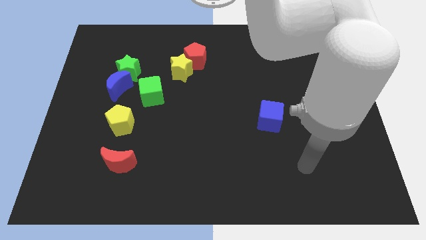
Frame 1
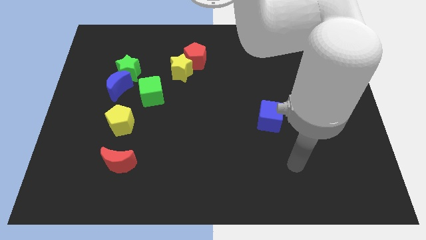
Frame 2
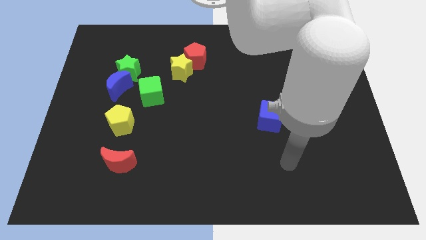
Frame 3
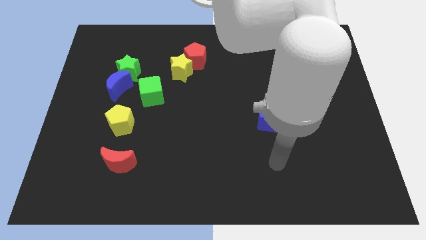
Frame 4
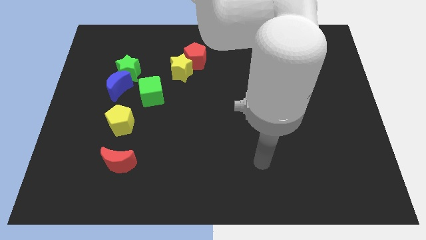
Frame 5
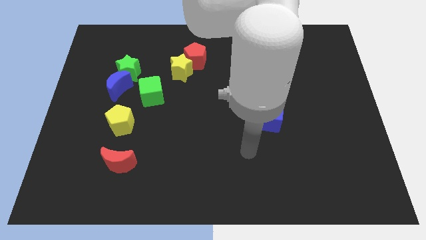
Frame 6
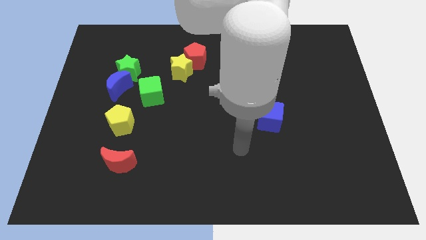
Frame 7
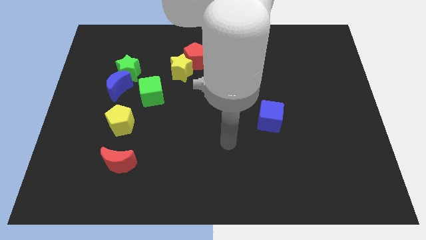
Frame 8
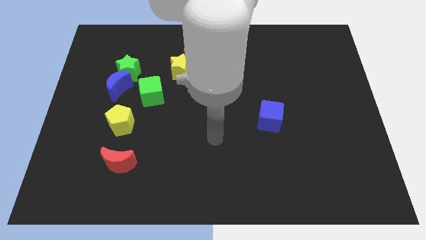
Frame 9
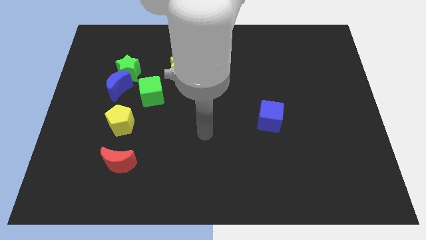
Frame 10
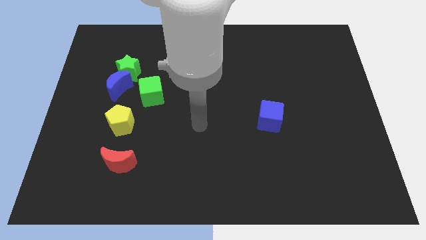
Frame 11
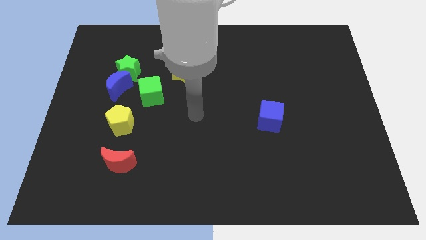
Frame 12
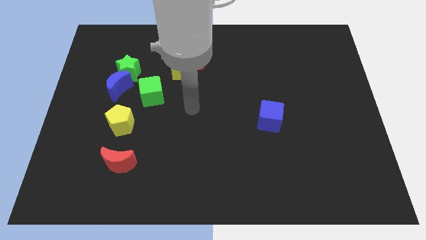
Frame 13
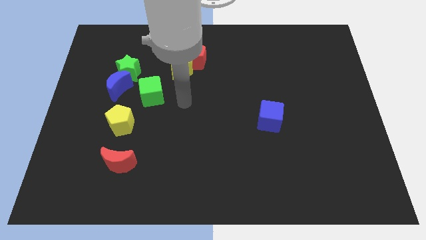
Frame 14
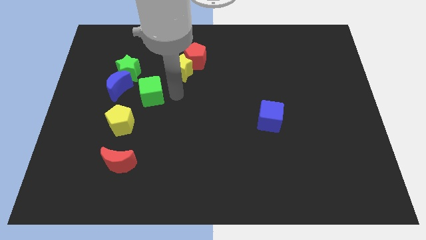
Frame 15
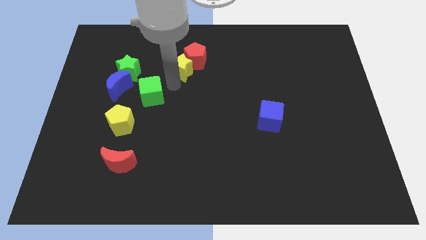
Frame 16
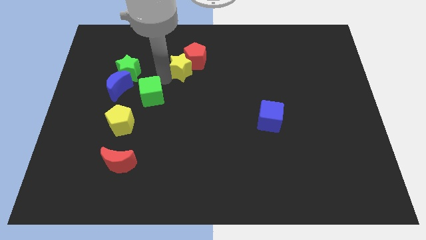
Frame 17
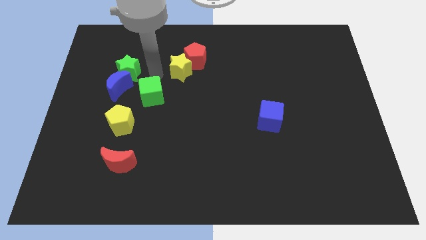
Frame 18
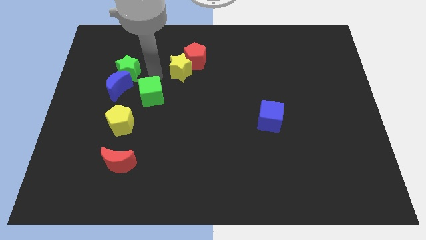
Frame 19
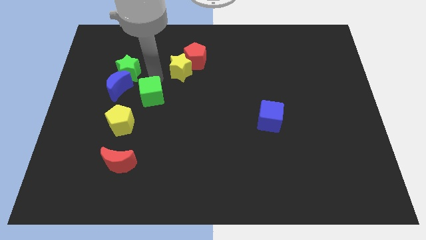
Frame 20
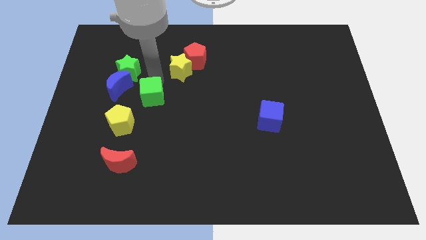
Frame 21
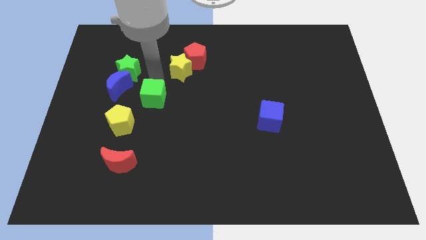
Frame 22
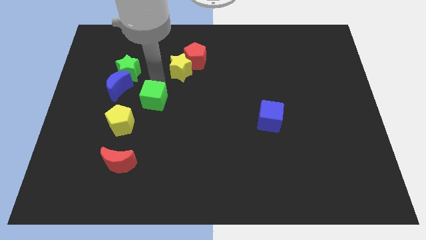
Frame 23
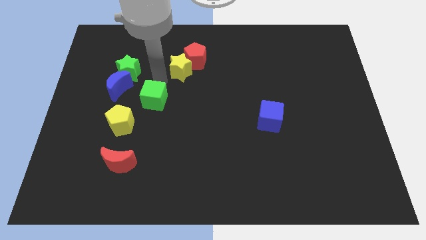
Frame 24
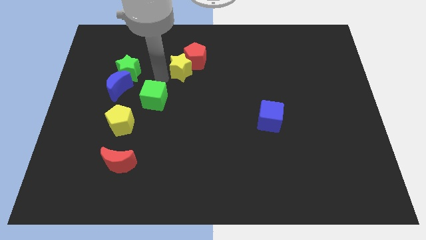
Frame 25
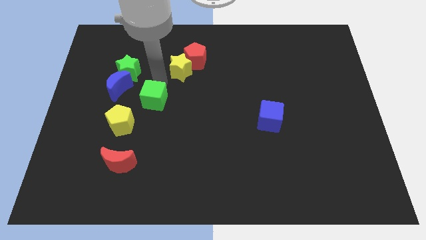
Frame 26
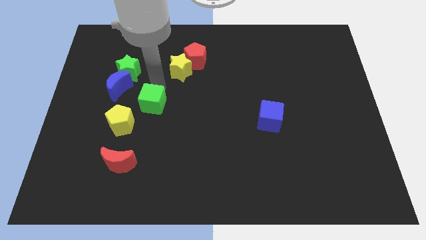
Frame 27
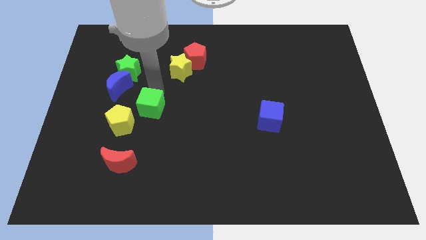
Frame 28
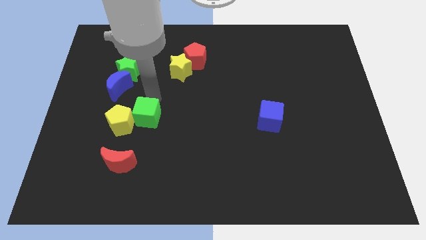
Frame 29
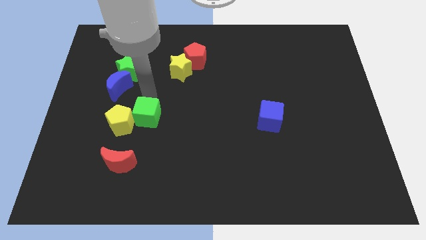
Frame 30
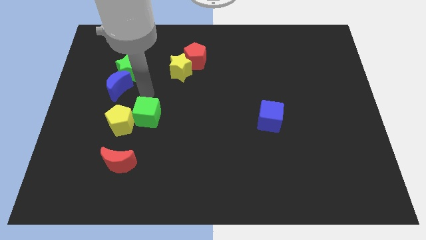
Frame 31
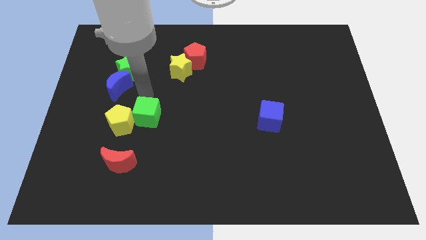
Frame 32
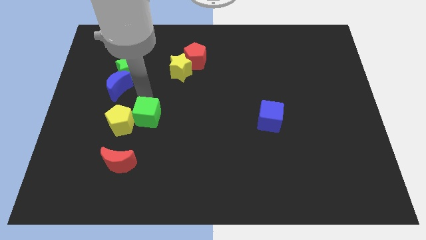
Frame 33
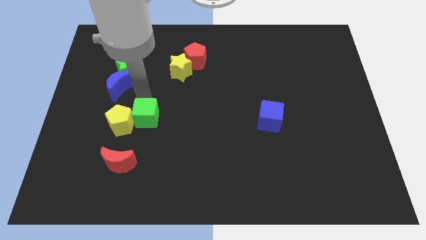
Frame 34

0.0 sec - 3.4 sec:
move the green cube downwards a bit

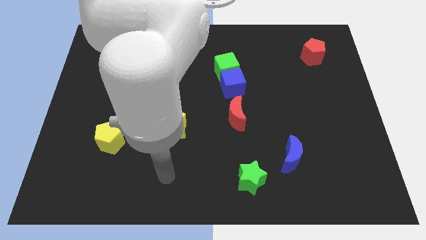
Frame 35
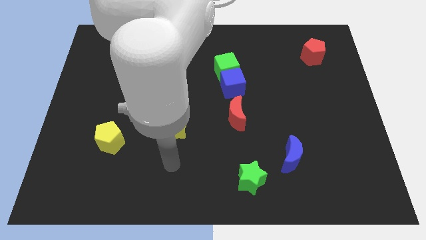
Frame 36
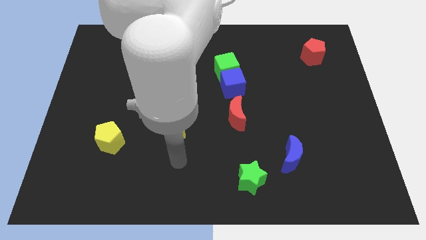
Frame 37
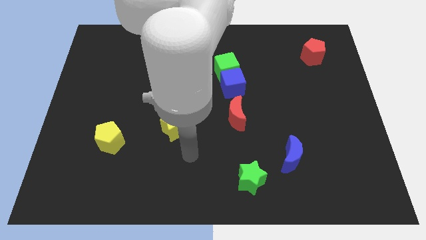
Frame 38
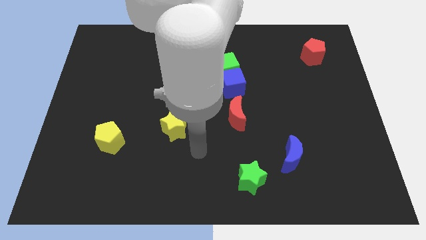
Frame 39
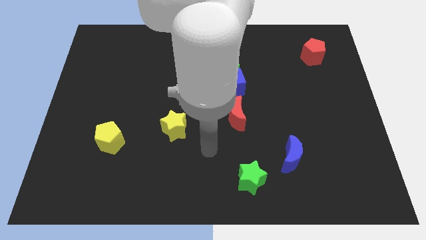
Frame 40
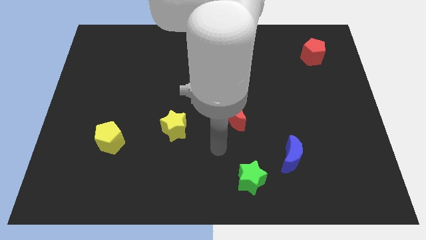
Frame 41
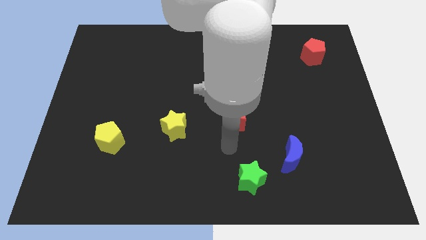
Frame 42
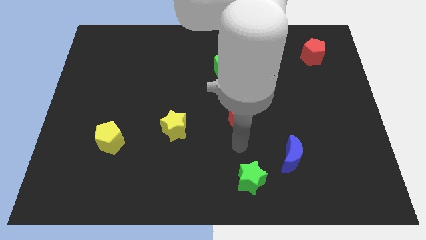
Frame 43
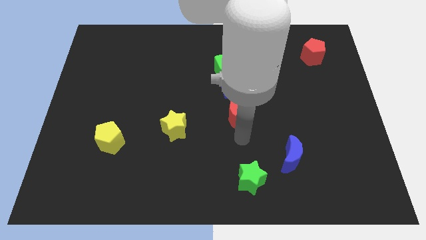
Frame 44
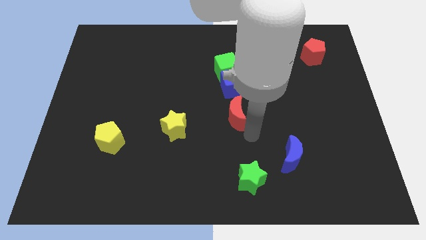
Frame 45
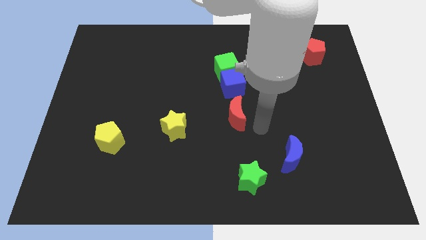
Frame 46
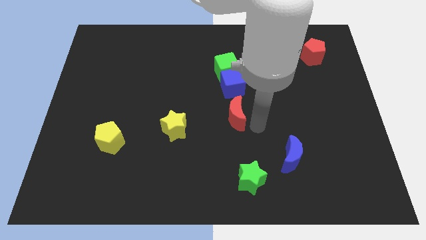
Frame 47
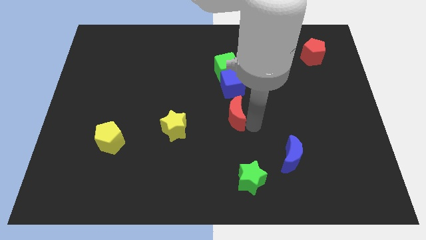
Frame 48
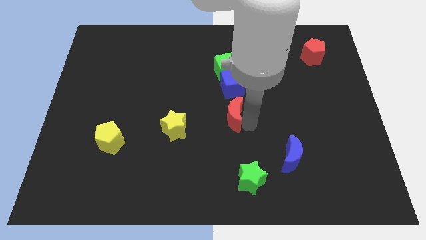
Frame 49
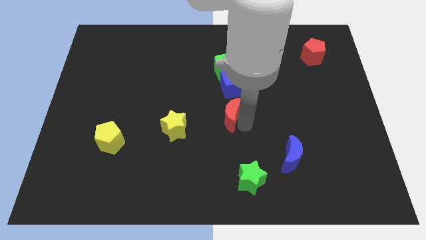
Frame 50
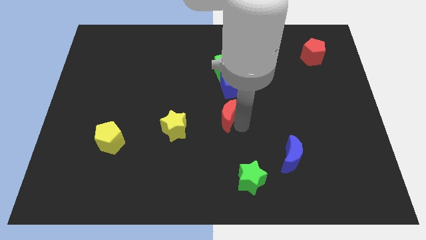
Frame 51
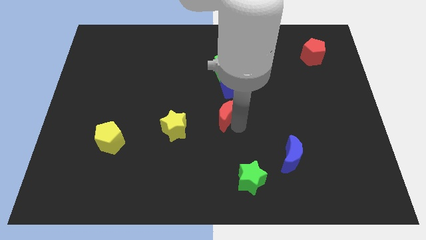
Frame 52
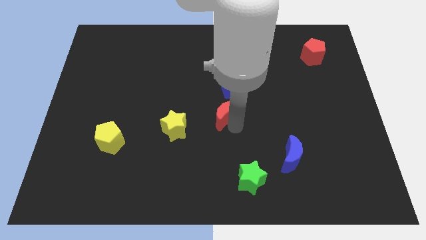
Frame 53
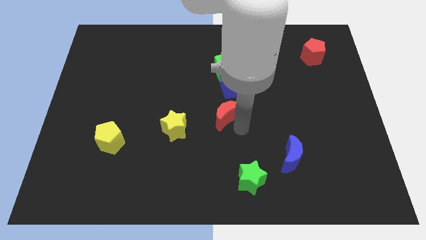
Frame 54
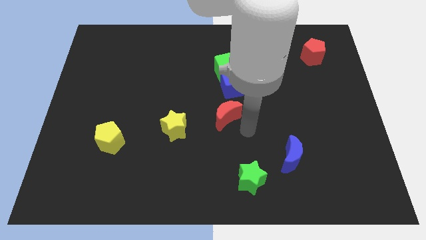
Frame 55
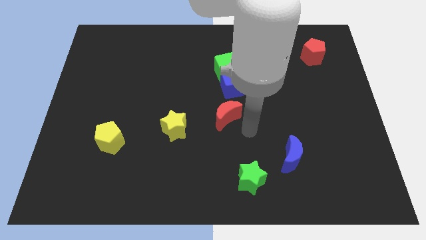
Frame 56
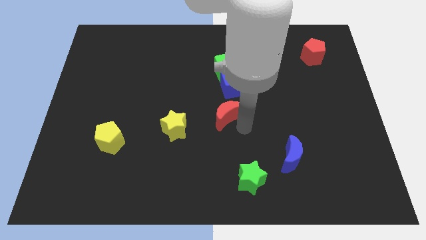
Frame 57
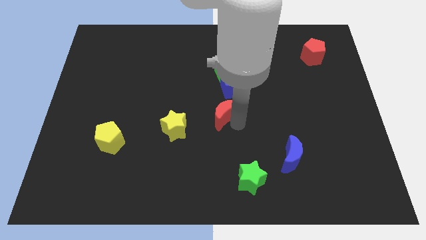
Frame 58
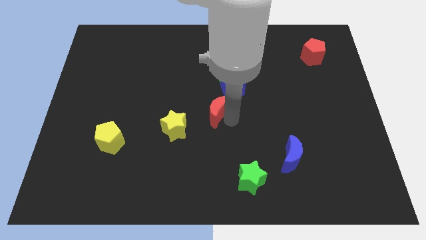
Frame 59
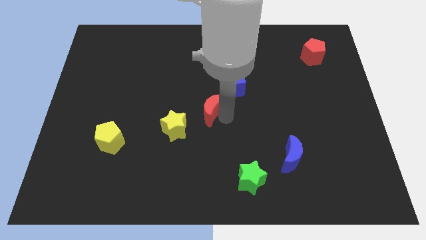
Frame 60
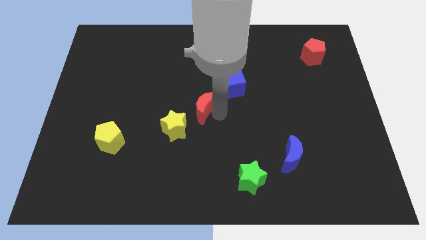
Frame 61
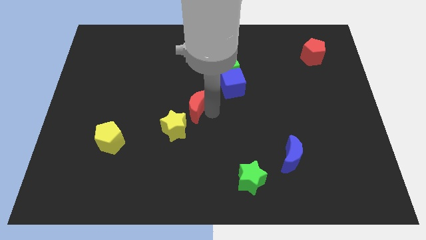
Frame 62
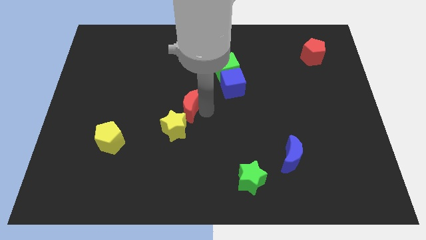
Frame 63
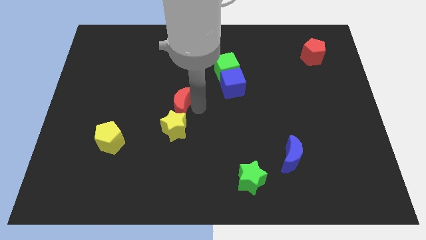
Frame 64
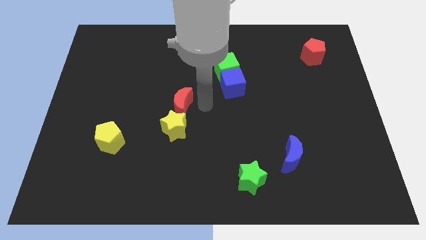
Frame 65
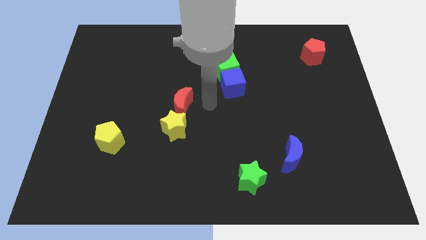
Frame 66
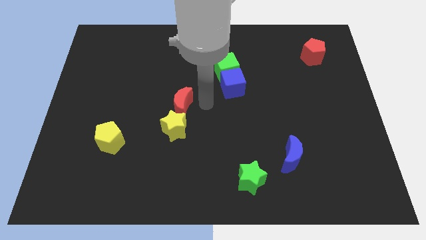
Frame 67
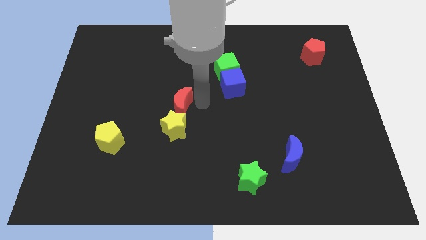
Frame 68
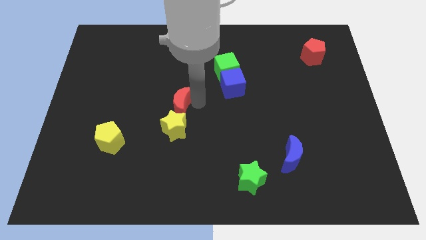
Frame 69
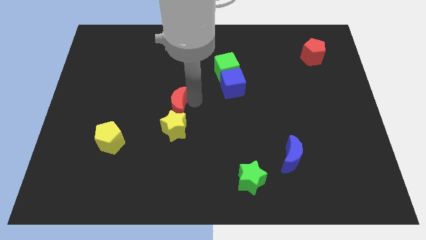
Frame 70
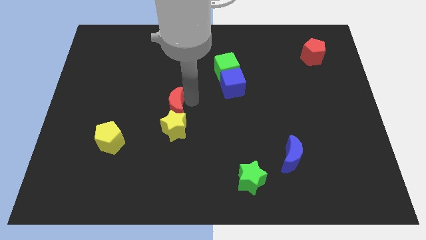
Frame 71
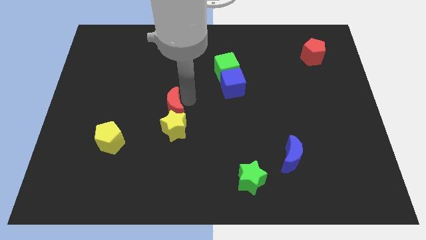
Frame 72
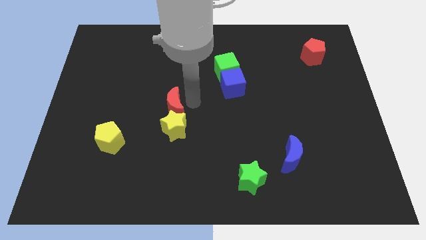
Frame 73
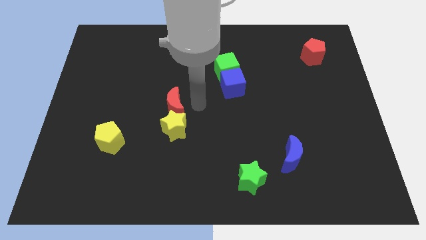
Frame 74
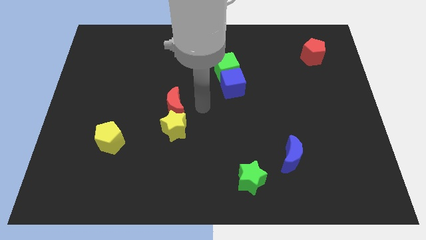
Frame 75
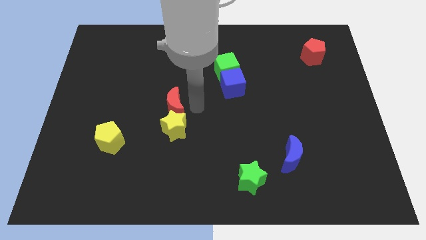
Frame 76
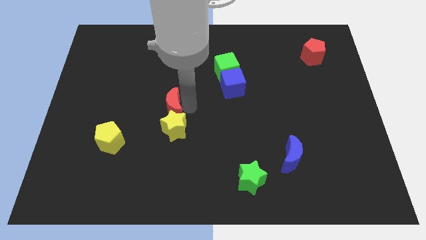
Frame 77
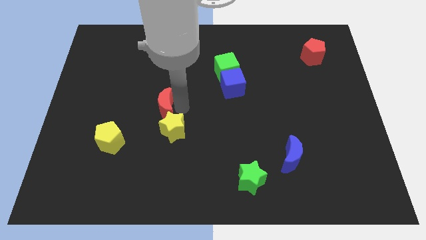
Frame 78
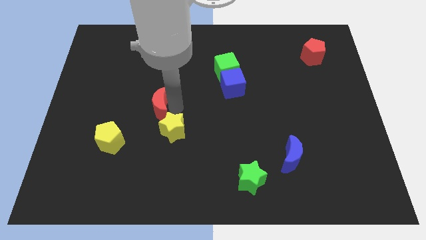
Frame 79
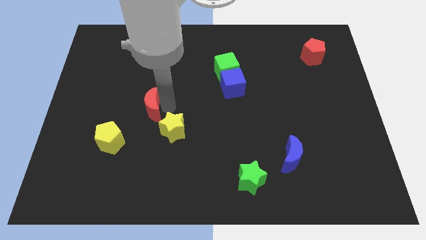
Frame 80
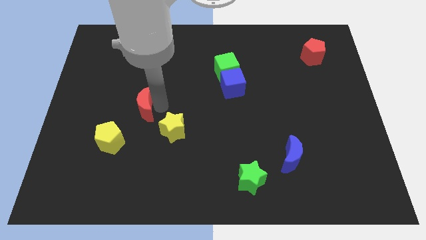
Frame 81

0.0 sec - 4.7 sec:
move the red moon left

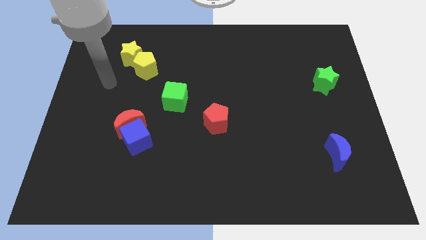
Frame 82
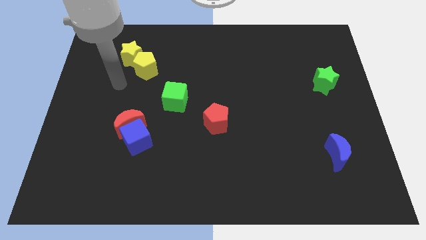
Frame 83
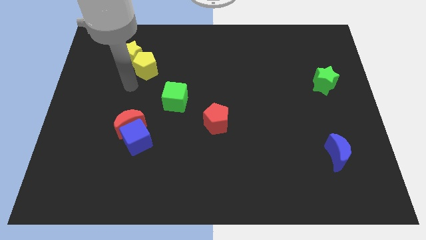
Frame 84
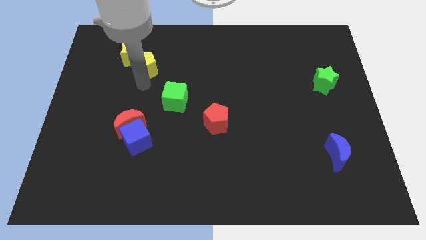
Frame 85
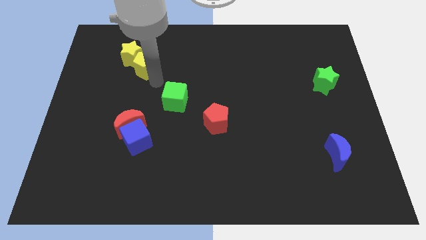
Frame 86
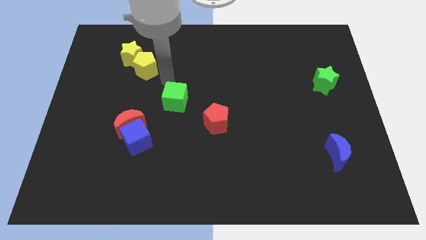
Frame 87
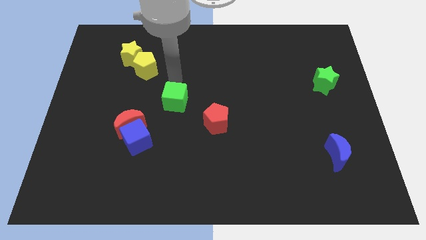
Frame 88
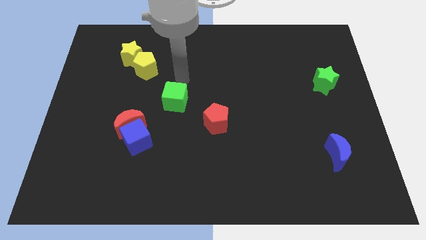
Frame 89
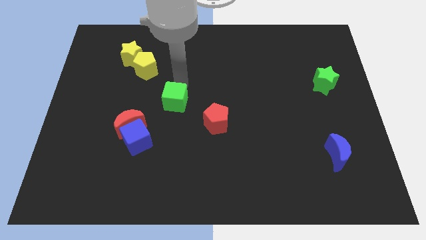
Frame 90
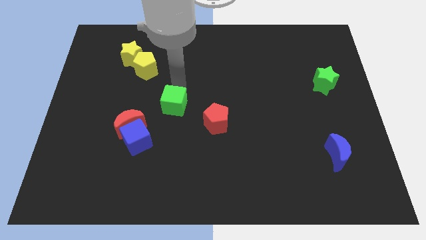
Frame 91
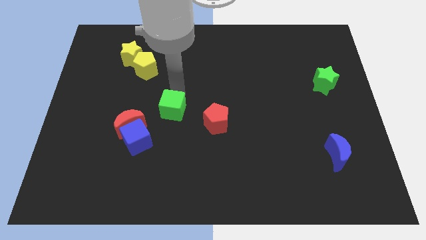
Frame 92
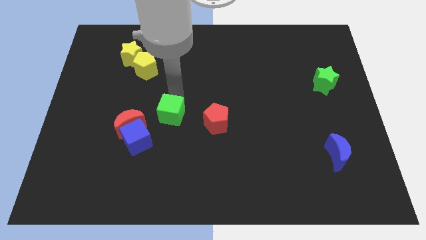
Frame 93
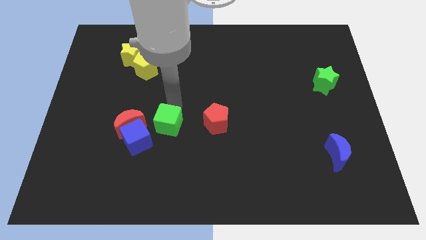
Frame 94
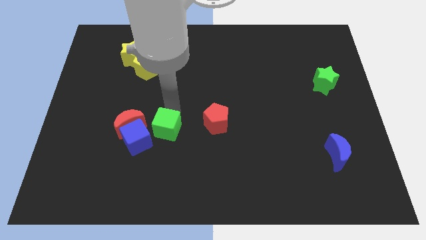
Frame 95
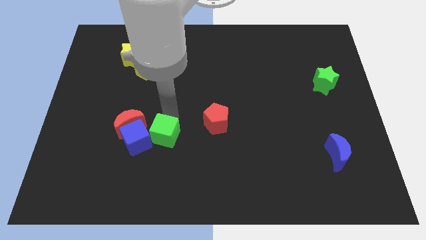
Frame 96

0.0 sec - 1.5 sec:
slide the green cube diagonally down and left slightly
